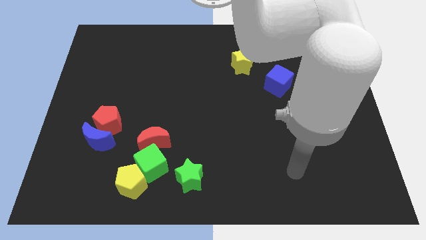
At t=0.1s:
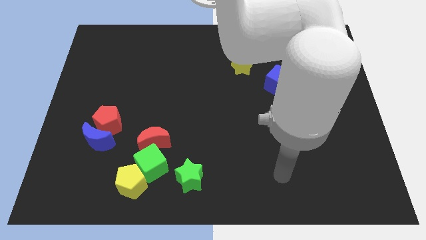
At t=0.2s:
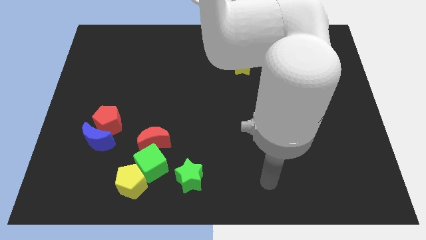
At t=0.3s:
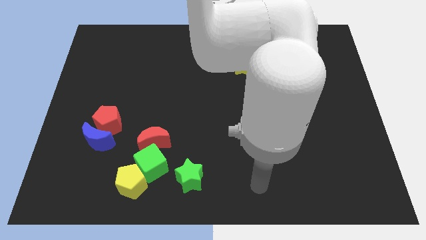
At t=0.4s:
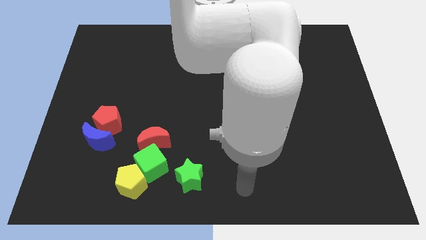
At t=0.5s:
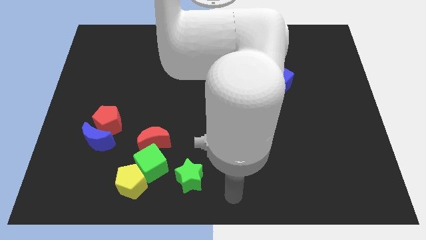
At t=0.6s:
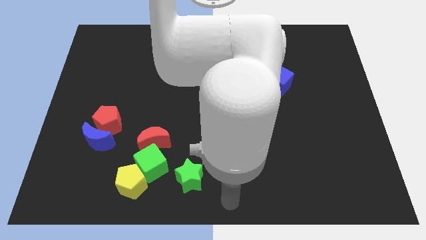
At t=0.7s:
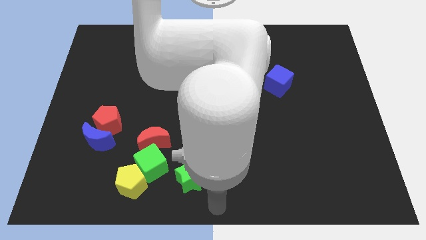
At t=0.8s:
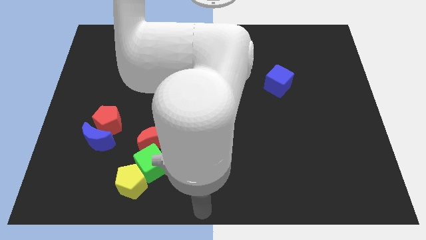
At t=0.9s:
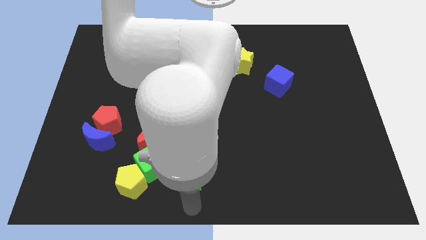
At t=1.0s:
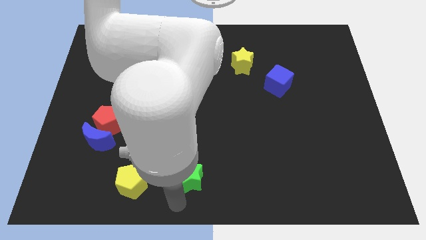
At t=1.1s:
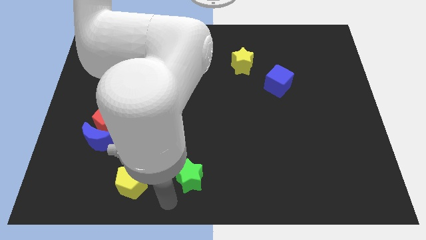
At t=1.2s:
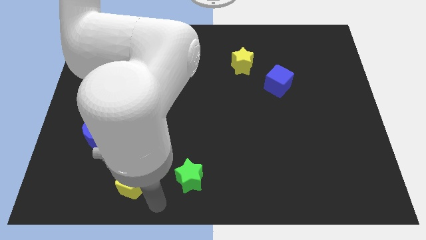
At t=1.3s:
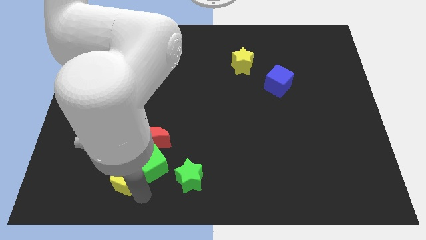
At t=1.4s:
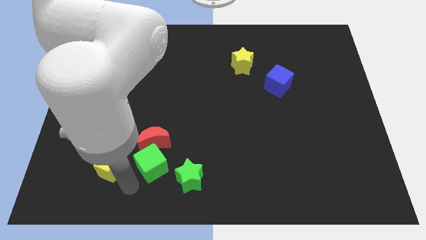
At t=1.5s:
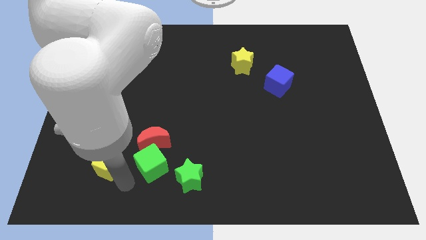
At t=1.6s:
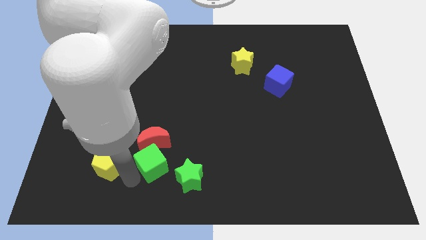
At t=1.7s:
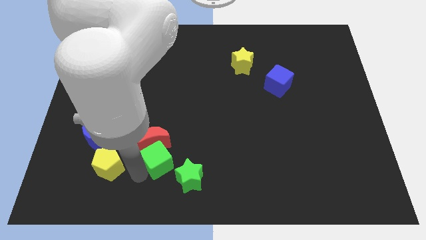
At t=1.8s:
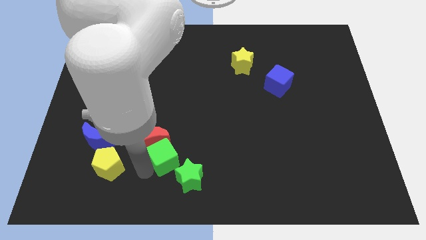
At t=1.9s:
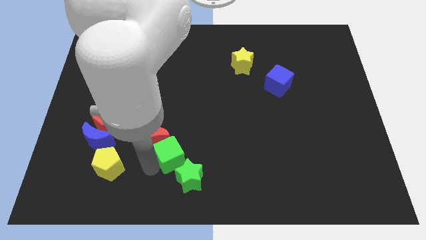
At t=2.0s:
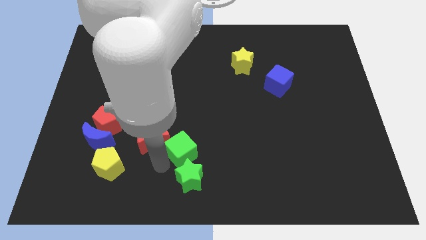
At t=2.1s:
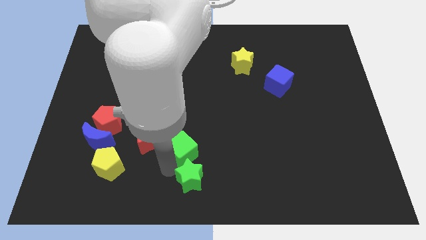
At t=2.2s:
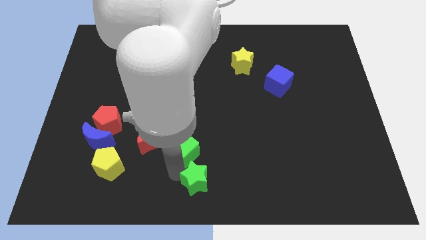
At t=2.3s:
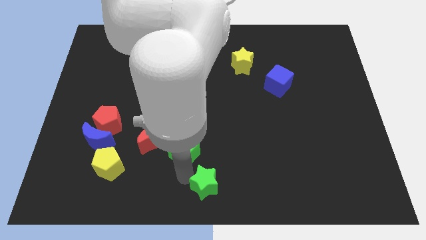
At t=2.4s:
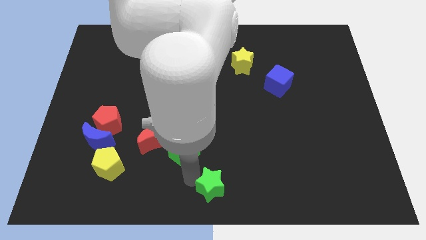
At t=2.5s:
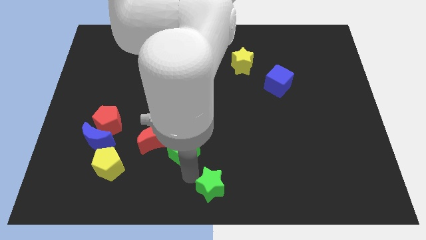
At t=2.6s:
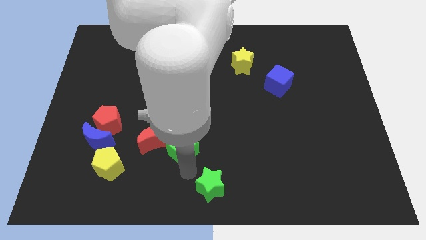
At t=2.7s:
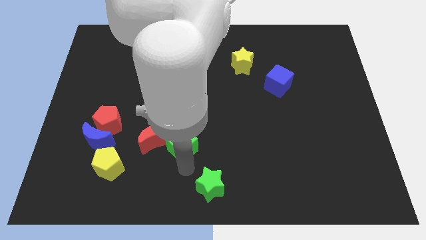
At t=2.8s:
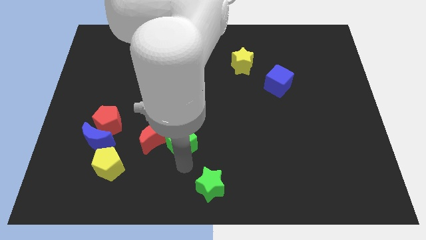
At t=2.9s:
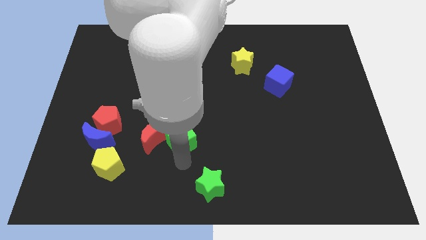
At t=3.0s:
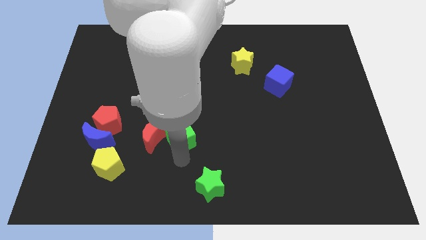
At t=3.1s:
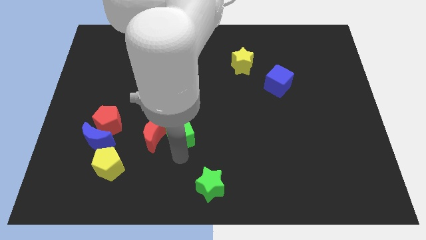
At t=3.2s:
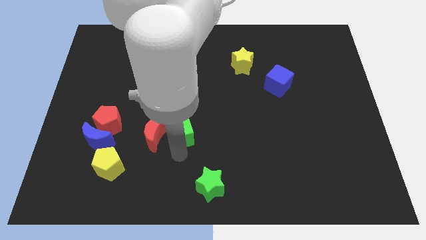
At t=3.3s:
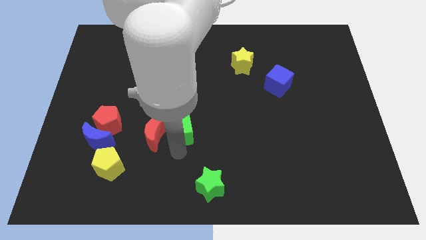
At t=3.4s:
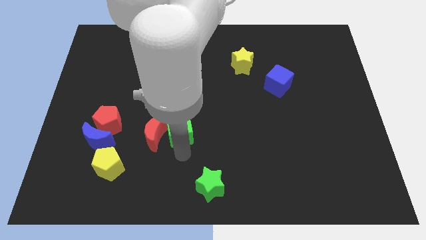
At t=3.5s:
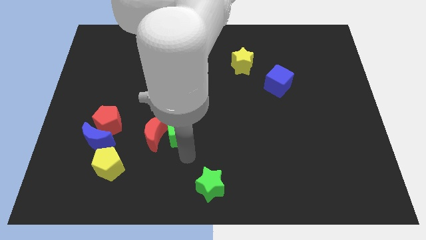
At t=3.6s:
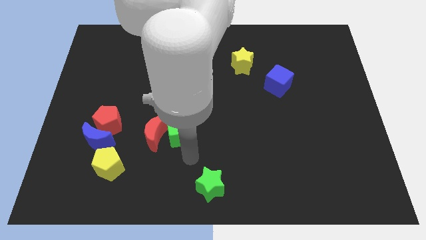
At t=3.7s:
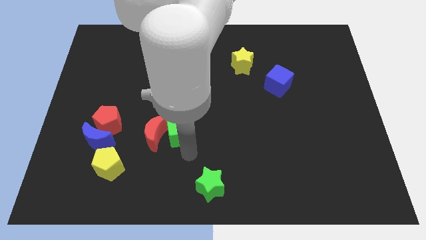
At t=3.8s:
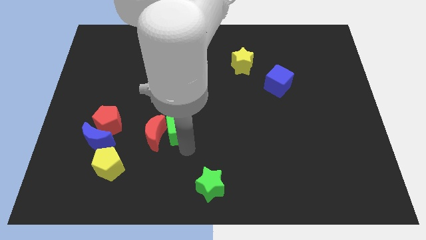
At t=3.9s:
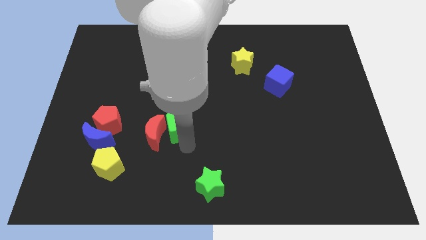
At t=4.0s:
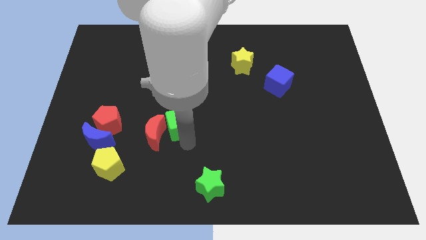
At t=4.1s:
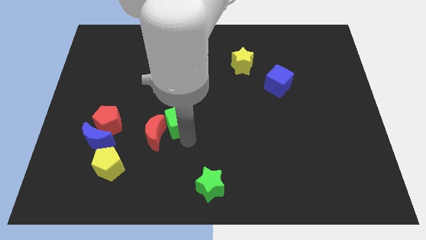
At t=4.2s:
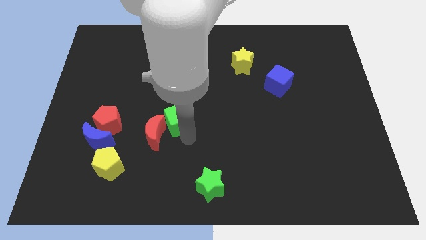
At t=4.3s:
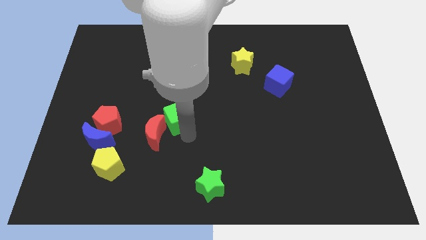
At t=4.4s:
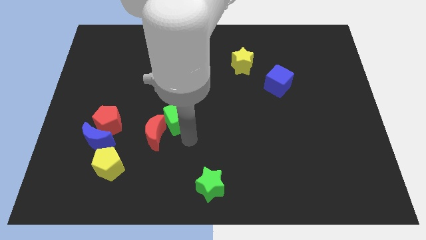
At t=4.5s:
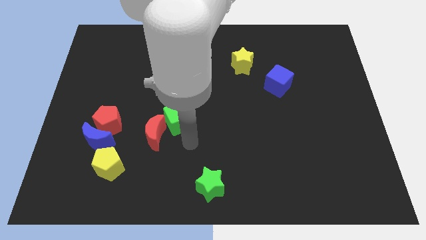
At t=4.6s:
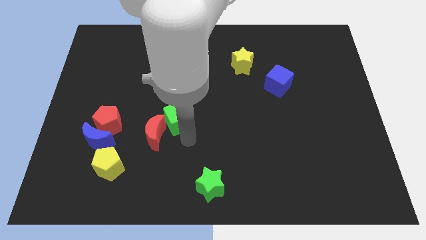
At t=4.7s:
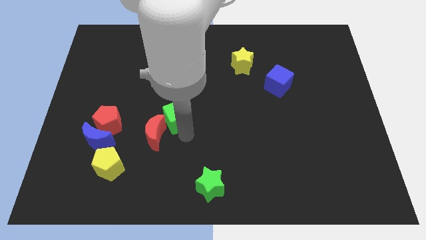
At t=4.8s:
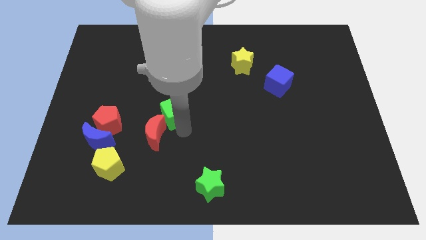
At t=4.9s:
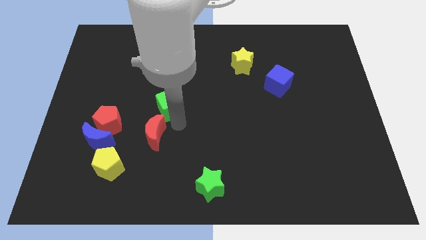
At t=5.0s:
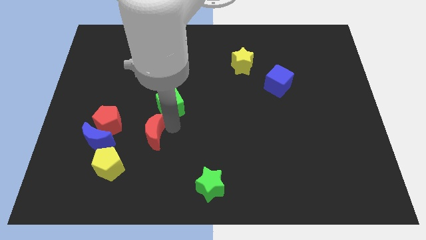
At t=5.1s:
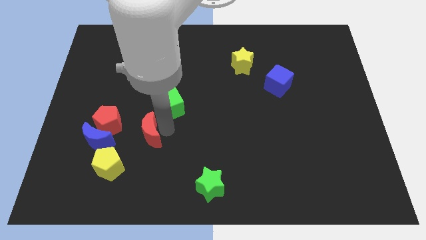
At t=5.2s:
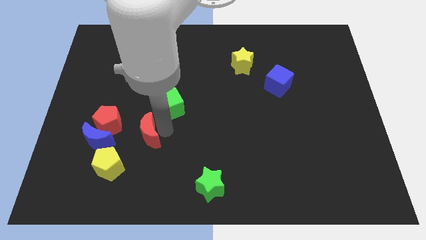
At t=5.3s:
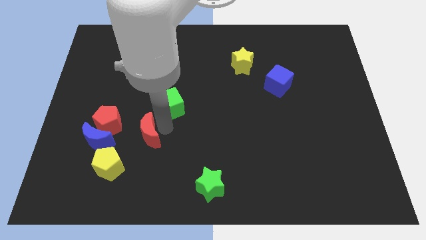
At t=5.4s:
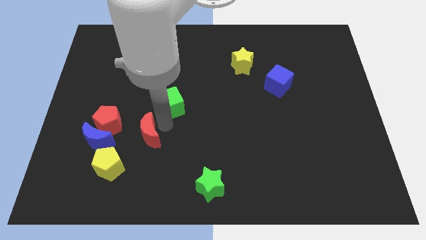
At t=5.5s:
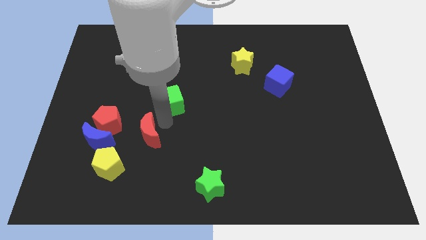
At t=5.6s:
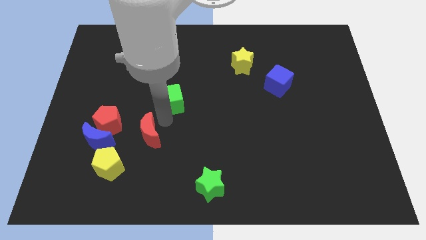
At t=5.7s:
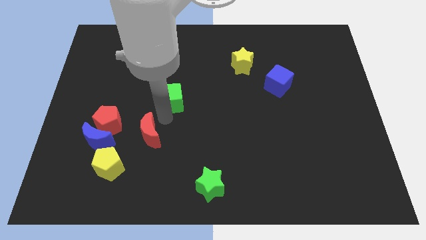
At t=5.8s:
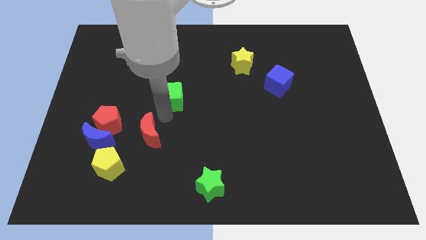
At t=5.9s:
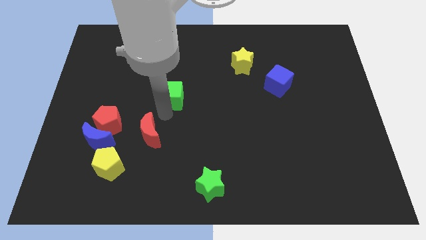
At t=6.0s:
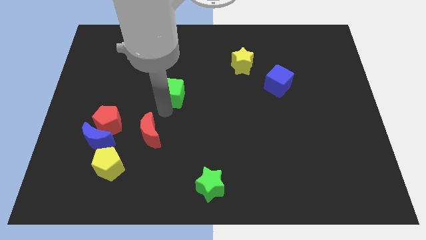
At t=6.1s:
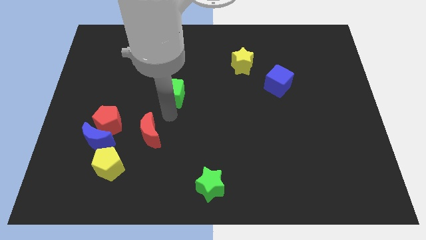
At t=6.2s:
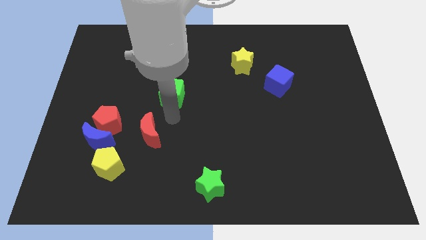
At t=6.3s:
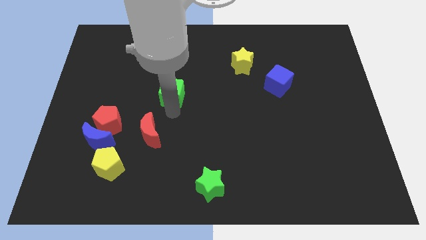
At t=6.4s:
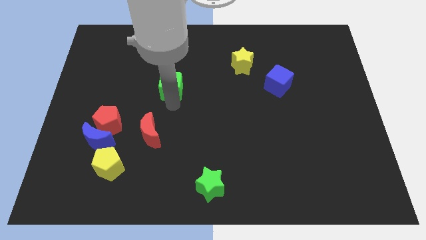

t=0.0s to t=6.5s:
move the green cube up

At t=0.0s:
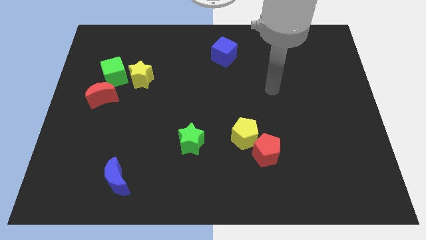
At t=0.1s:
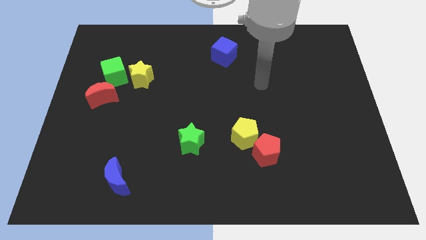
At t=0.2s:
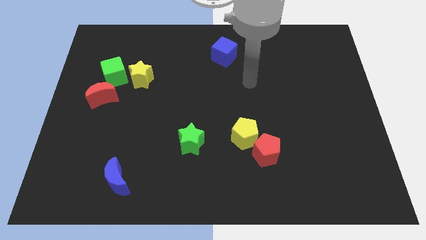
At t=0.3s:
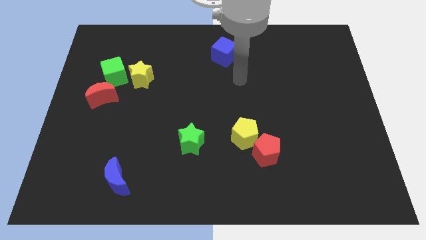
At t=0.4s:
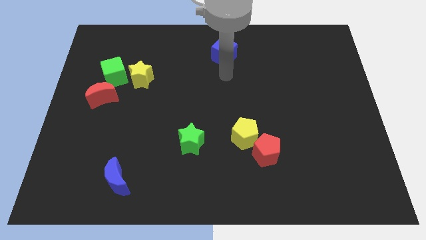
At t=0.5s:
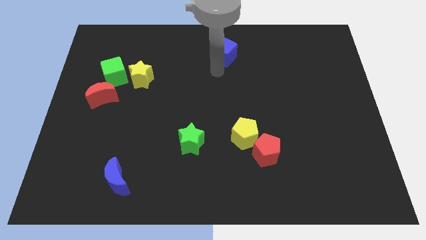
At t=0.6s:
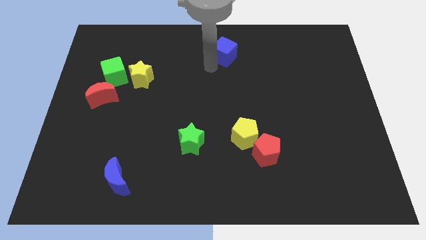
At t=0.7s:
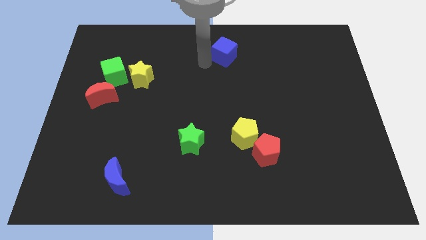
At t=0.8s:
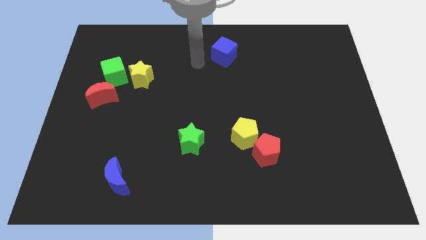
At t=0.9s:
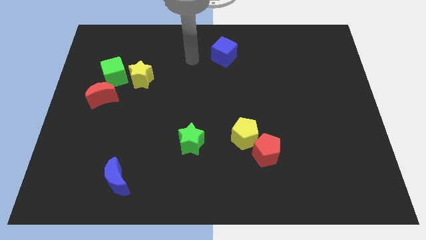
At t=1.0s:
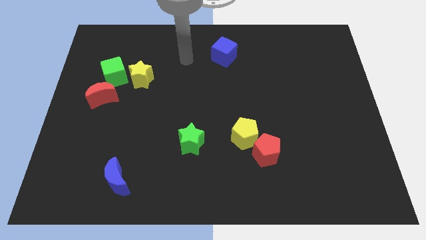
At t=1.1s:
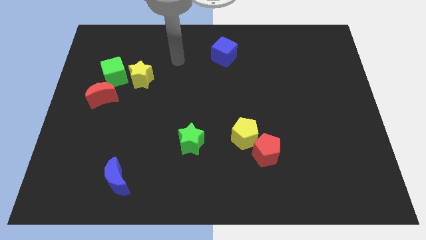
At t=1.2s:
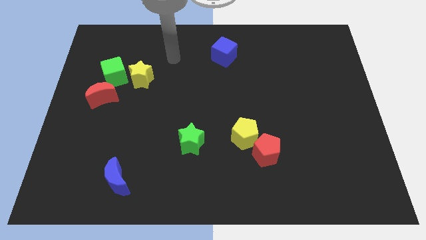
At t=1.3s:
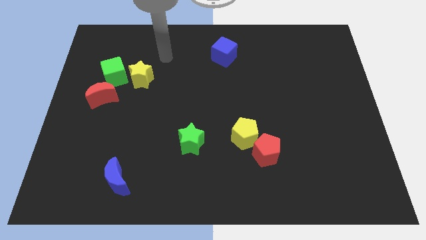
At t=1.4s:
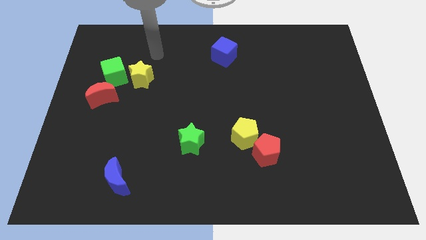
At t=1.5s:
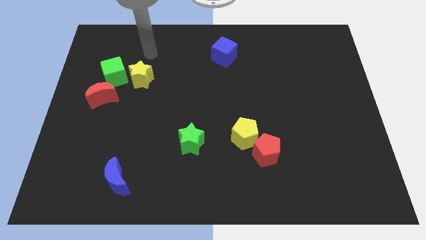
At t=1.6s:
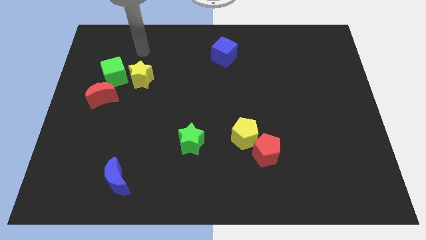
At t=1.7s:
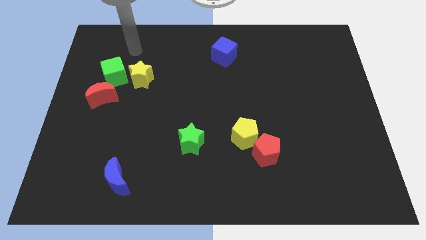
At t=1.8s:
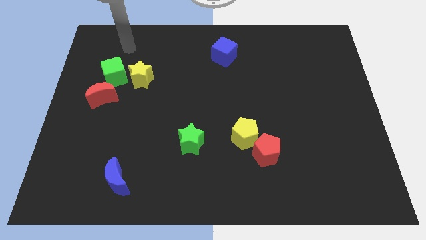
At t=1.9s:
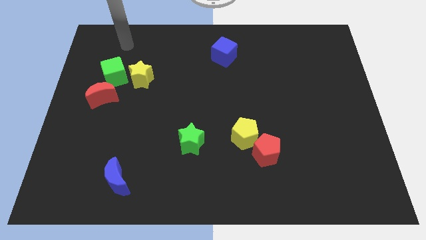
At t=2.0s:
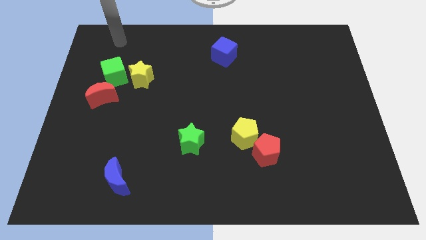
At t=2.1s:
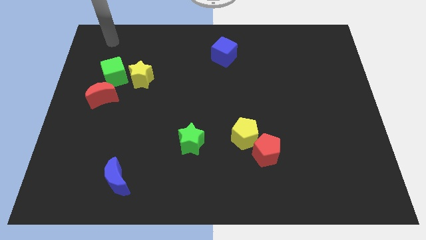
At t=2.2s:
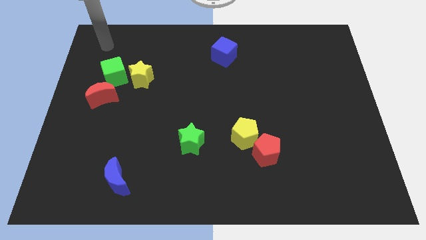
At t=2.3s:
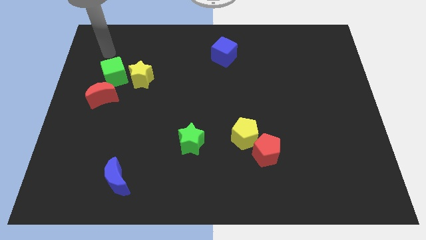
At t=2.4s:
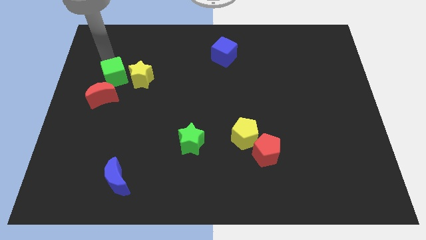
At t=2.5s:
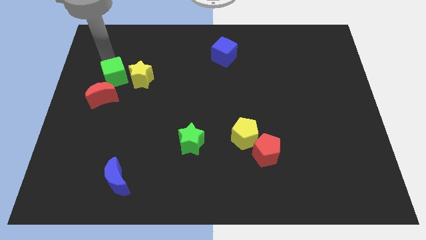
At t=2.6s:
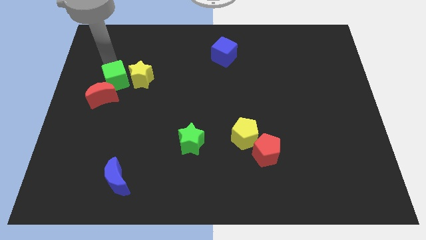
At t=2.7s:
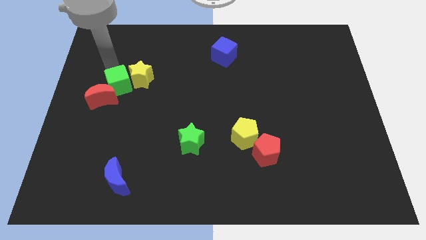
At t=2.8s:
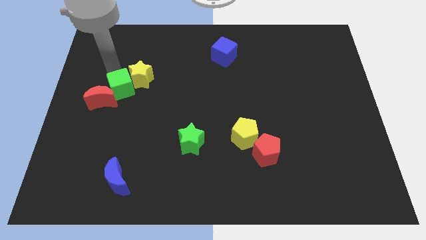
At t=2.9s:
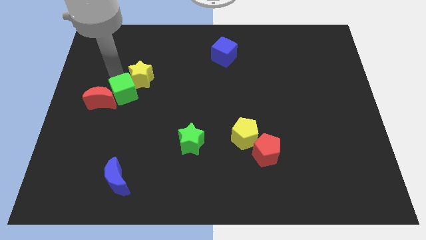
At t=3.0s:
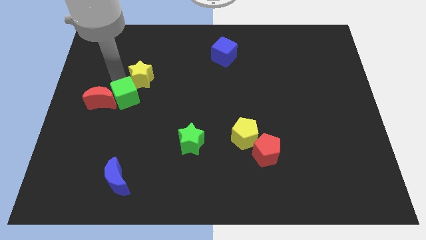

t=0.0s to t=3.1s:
slide the green cube a little bit down and to the right diagonally
